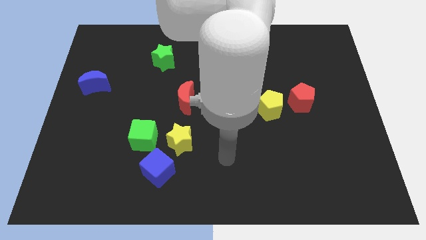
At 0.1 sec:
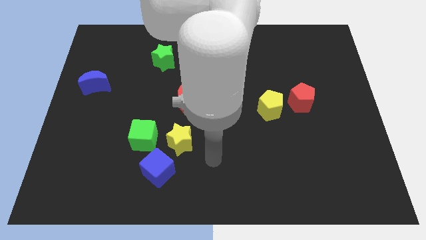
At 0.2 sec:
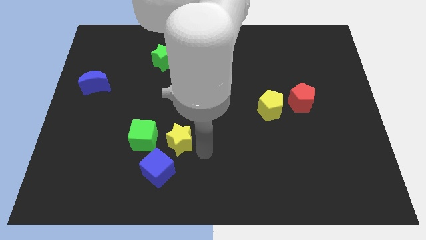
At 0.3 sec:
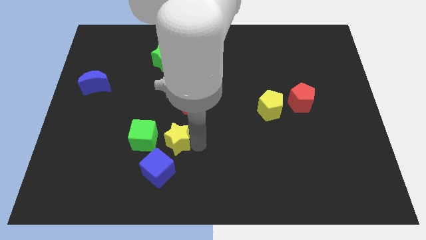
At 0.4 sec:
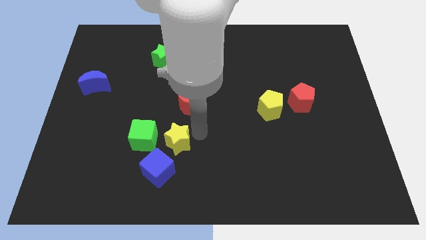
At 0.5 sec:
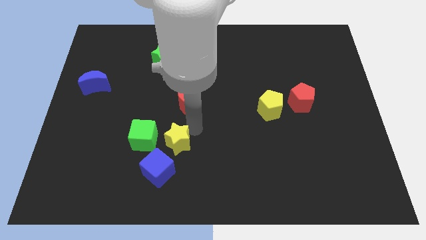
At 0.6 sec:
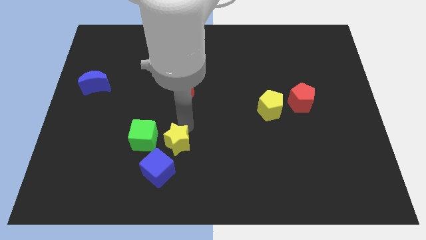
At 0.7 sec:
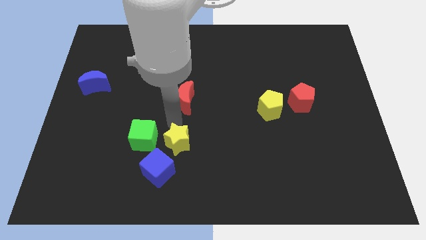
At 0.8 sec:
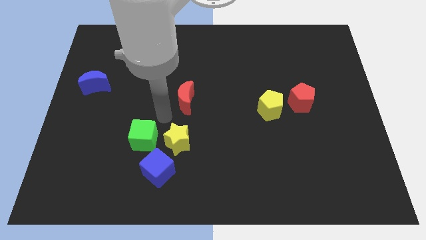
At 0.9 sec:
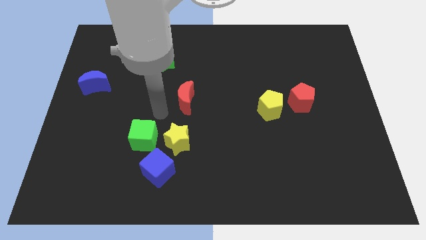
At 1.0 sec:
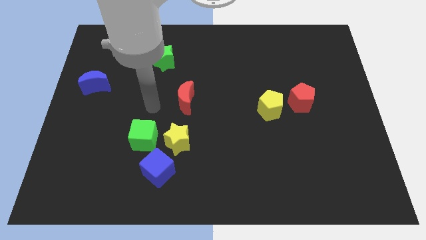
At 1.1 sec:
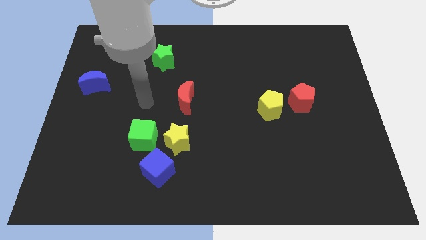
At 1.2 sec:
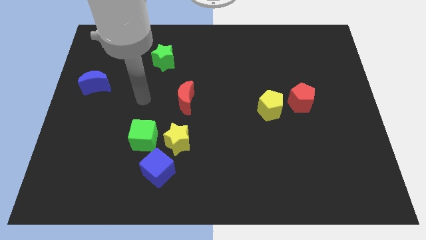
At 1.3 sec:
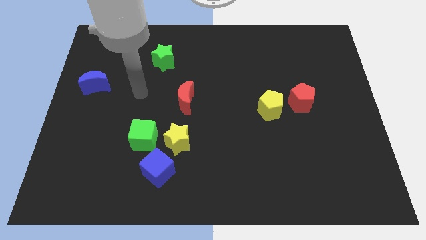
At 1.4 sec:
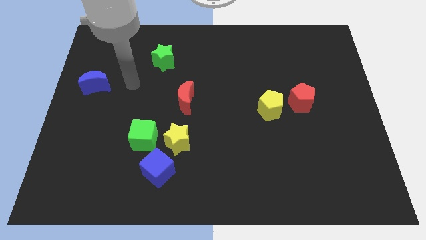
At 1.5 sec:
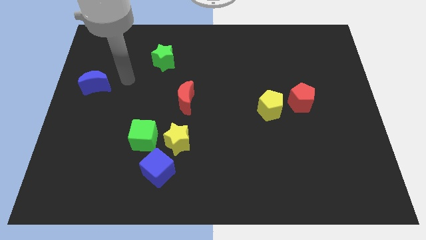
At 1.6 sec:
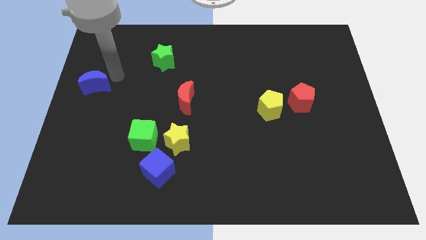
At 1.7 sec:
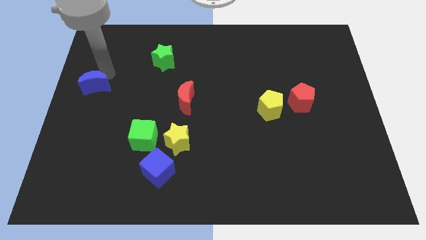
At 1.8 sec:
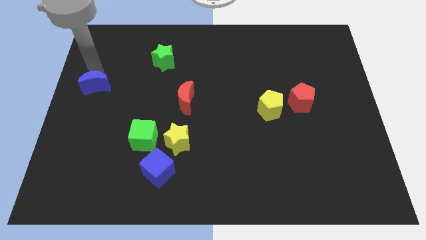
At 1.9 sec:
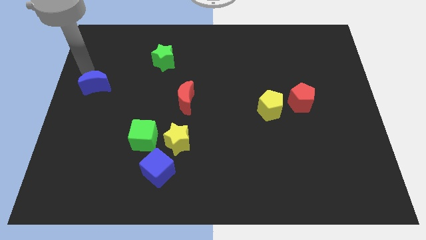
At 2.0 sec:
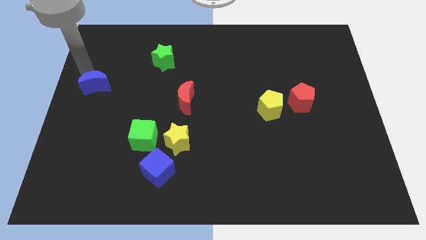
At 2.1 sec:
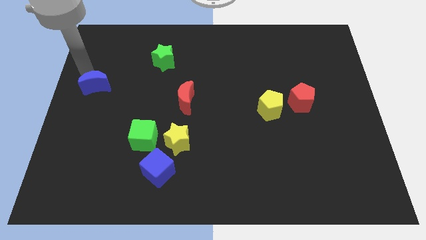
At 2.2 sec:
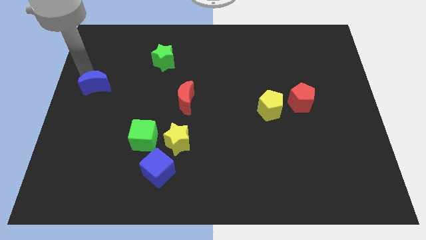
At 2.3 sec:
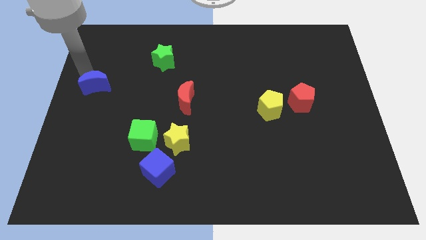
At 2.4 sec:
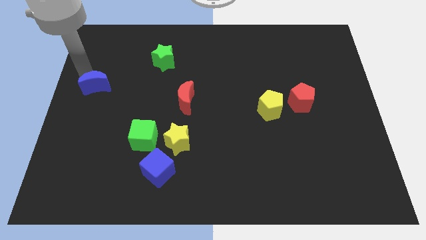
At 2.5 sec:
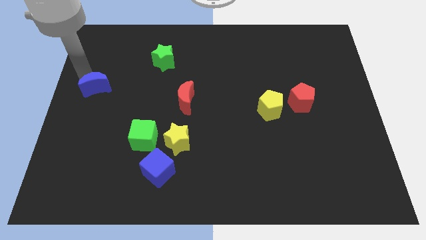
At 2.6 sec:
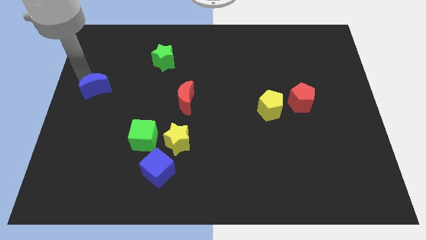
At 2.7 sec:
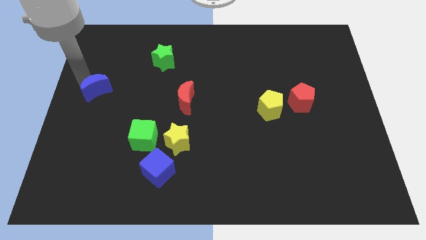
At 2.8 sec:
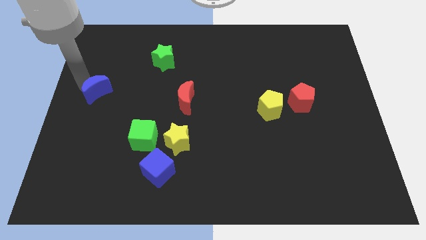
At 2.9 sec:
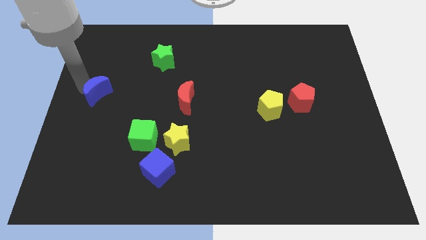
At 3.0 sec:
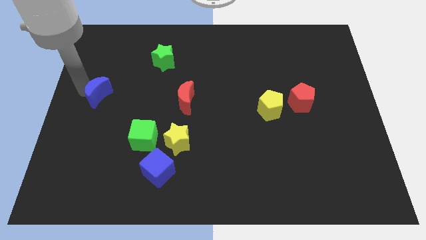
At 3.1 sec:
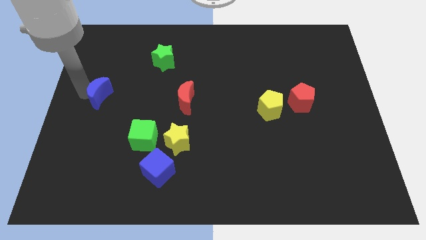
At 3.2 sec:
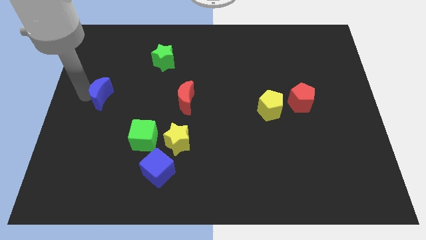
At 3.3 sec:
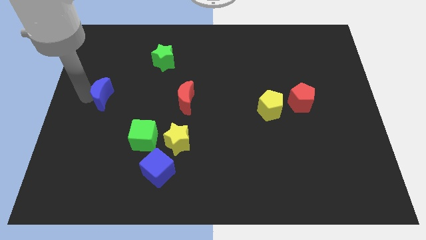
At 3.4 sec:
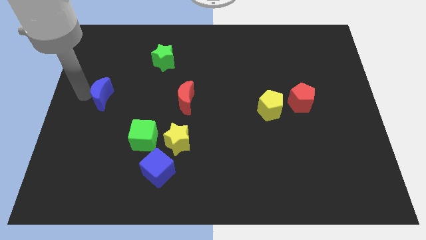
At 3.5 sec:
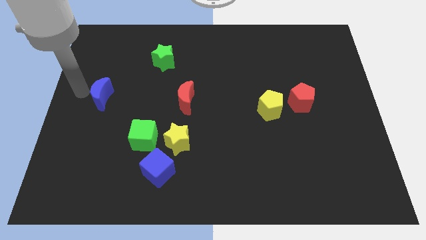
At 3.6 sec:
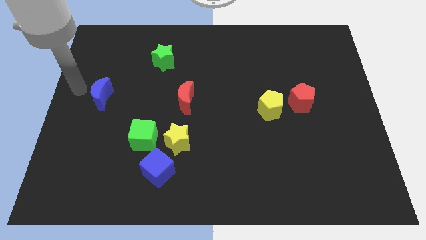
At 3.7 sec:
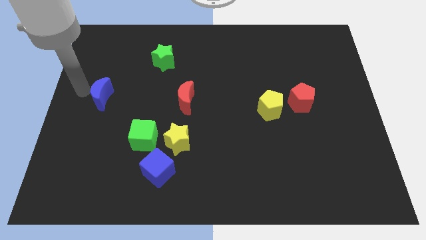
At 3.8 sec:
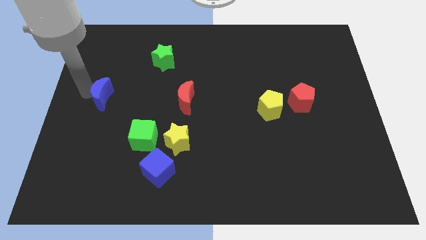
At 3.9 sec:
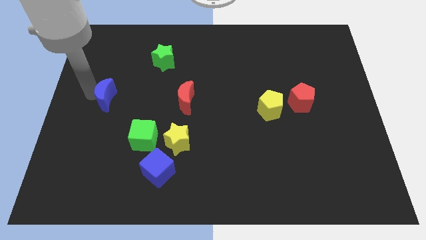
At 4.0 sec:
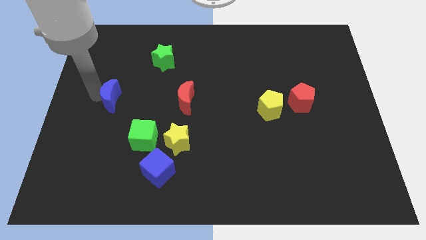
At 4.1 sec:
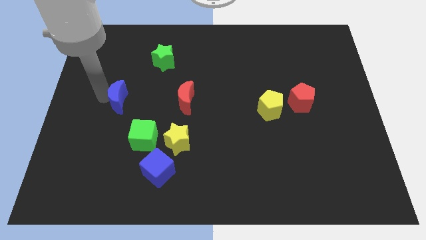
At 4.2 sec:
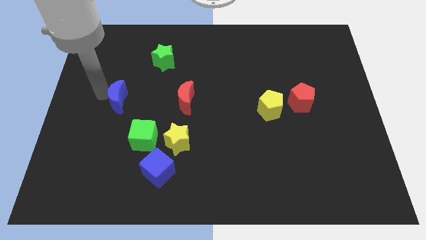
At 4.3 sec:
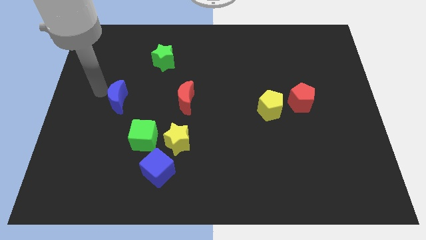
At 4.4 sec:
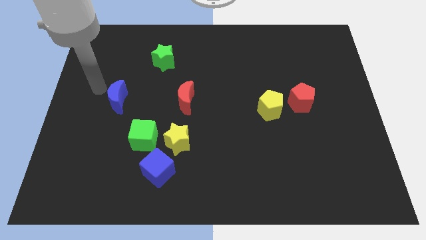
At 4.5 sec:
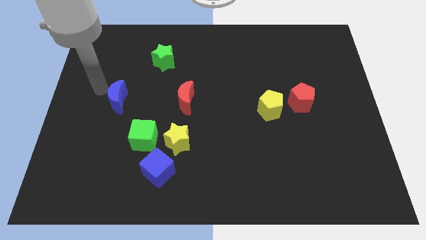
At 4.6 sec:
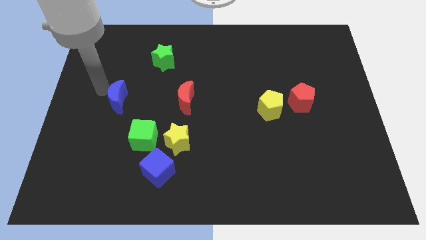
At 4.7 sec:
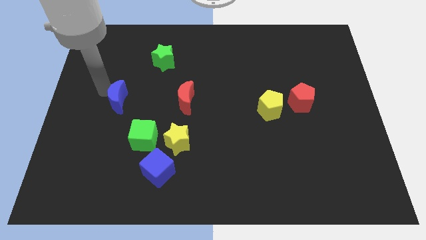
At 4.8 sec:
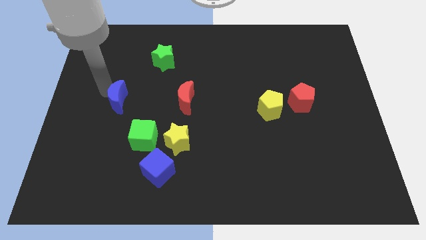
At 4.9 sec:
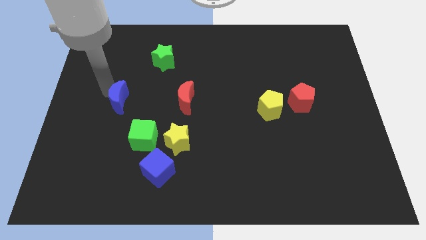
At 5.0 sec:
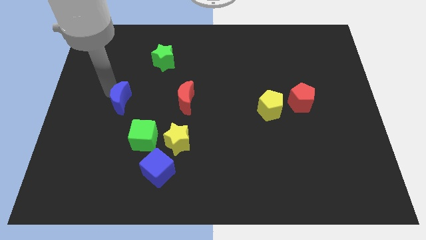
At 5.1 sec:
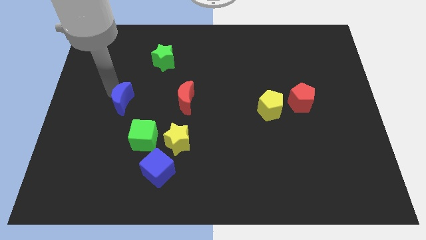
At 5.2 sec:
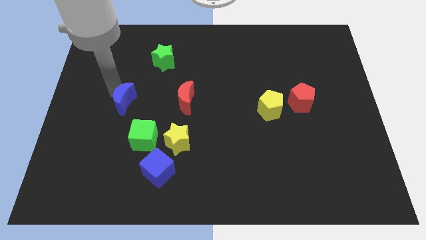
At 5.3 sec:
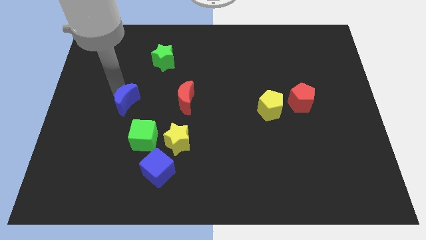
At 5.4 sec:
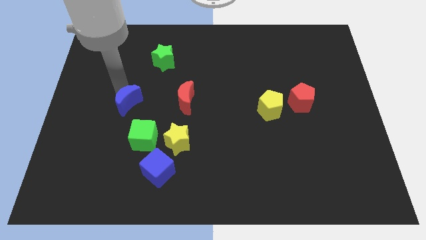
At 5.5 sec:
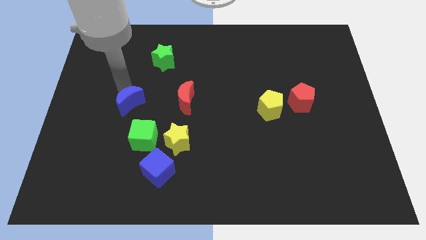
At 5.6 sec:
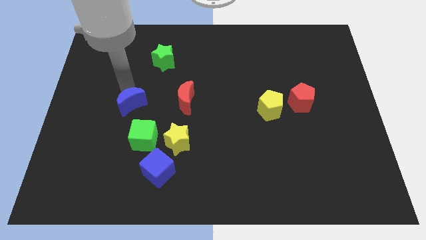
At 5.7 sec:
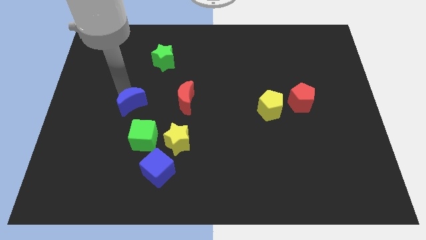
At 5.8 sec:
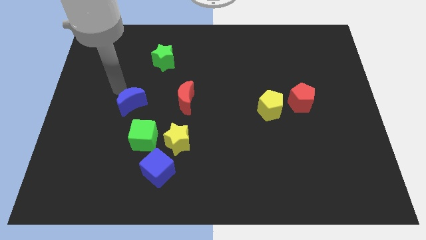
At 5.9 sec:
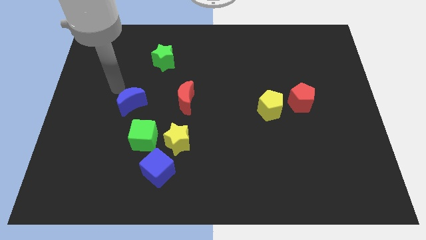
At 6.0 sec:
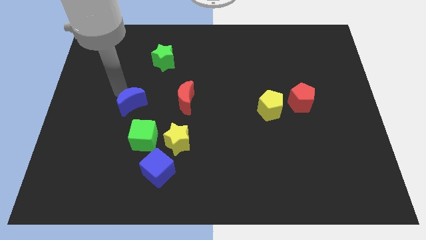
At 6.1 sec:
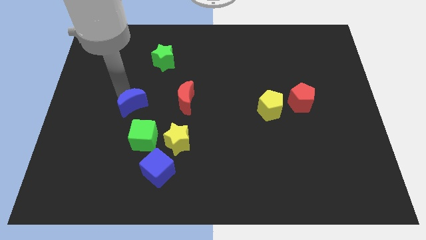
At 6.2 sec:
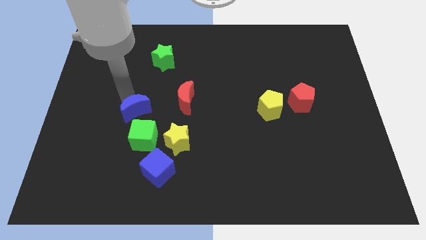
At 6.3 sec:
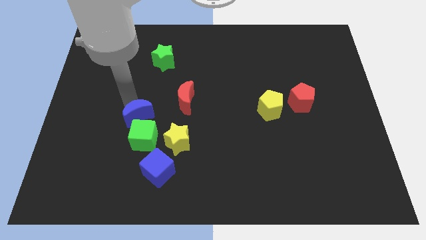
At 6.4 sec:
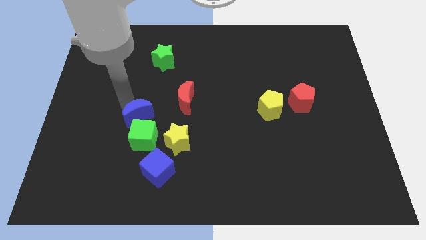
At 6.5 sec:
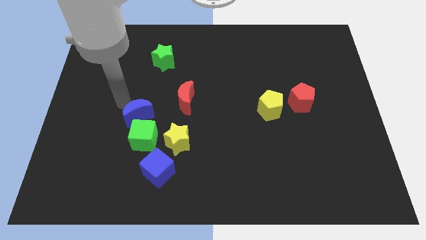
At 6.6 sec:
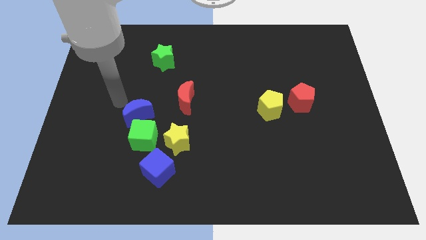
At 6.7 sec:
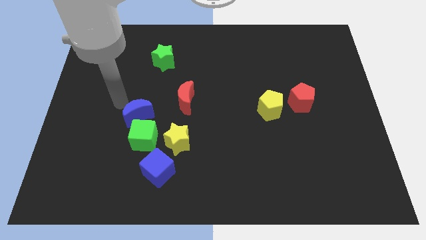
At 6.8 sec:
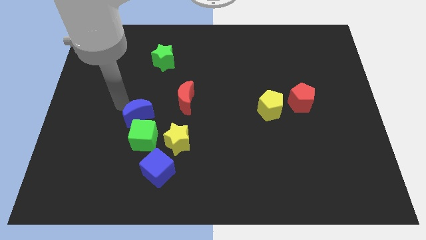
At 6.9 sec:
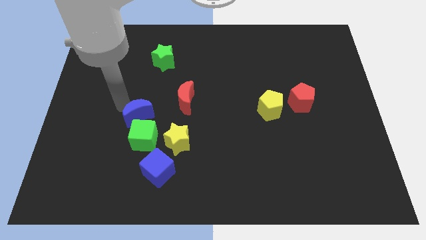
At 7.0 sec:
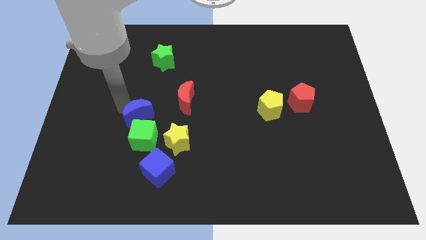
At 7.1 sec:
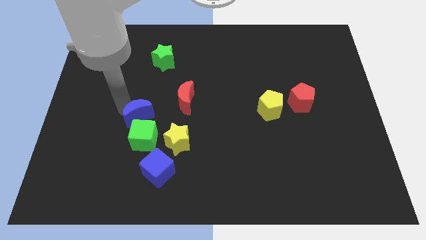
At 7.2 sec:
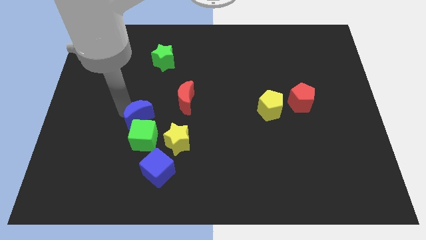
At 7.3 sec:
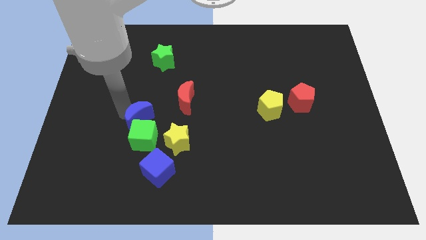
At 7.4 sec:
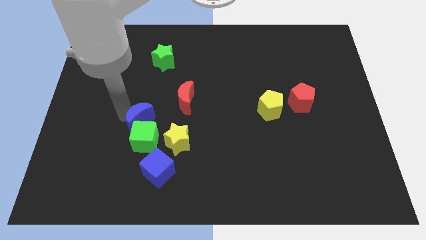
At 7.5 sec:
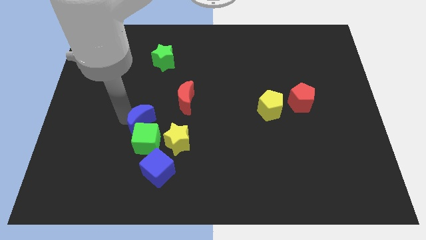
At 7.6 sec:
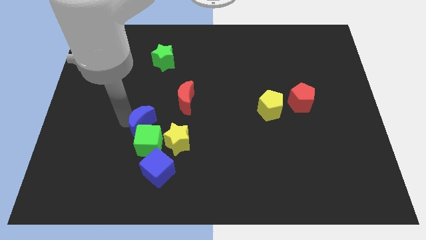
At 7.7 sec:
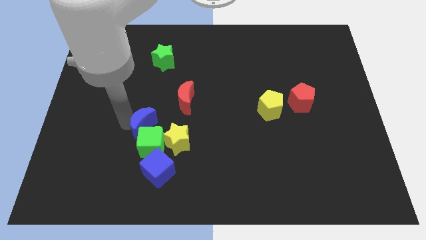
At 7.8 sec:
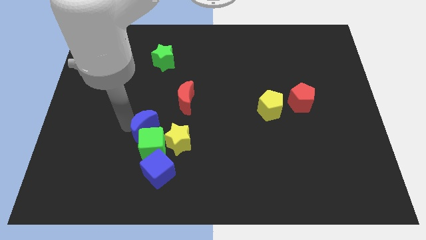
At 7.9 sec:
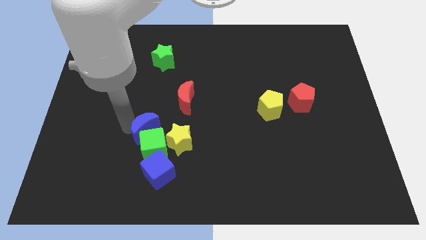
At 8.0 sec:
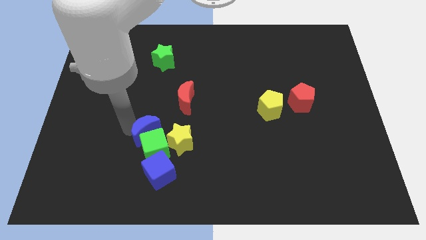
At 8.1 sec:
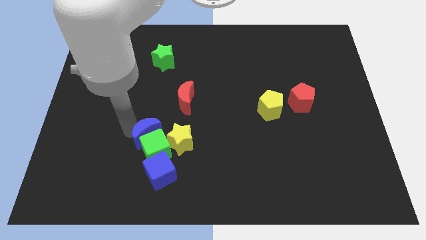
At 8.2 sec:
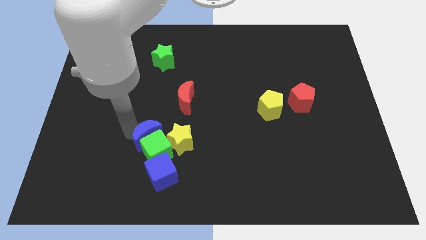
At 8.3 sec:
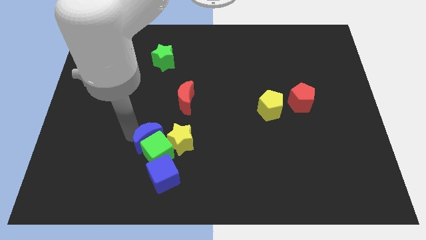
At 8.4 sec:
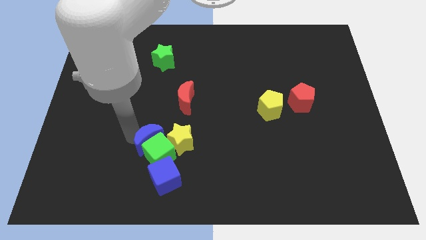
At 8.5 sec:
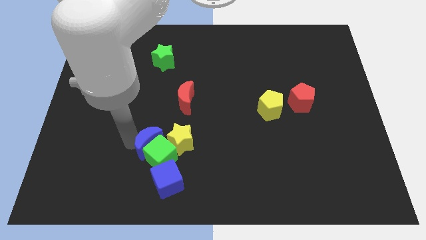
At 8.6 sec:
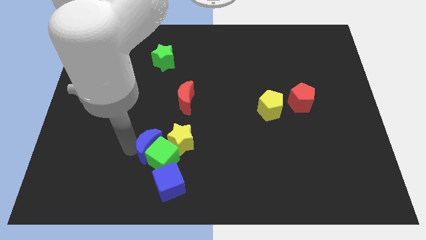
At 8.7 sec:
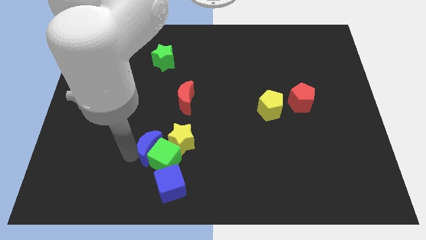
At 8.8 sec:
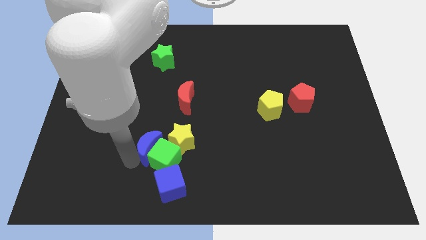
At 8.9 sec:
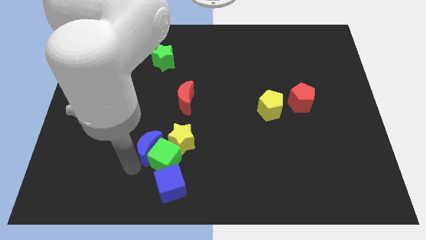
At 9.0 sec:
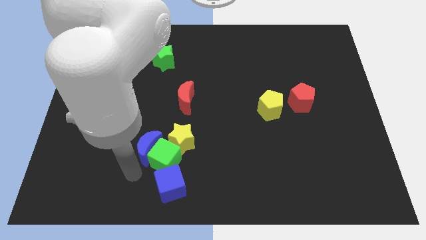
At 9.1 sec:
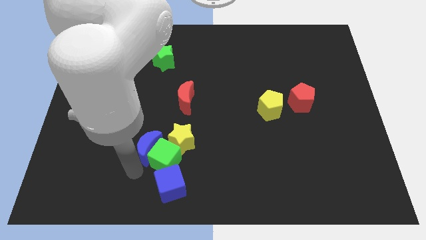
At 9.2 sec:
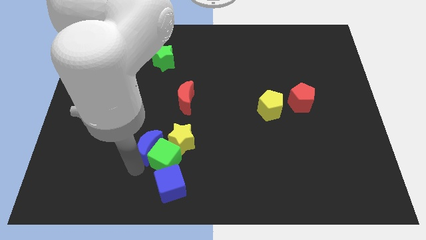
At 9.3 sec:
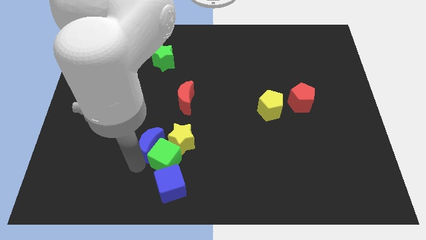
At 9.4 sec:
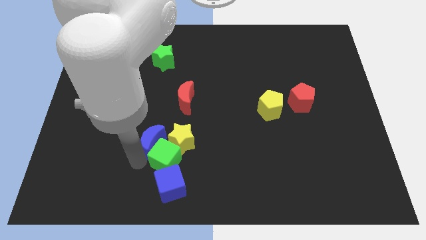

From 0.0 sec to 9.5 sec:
push the blue moon next to the yellow star
